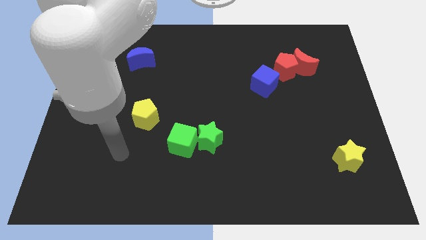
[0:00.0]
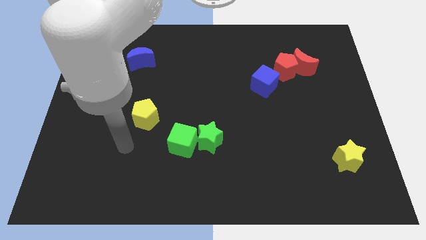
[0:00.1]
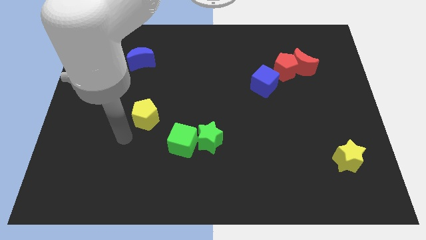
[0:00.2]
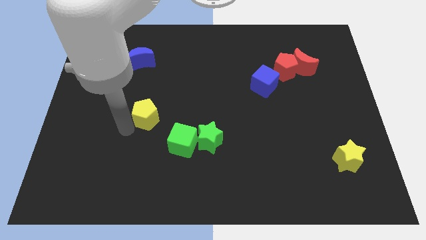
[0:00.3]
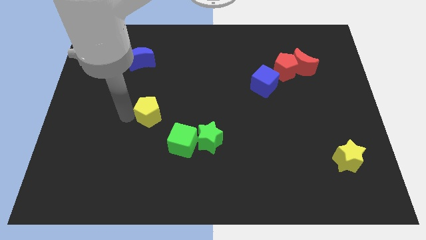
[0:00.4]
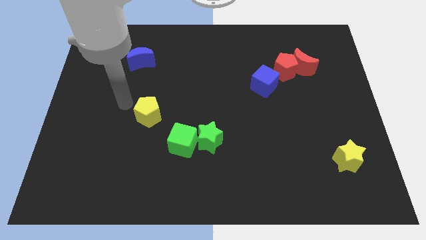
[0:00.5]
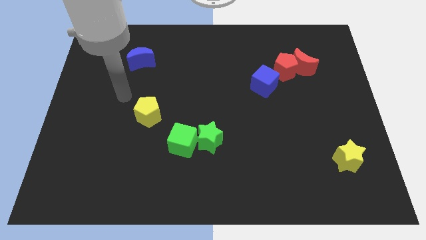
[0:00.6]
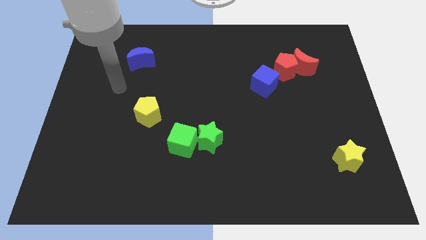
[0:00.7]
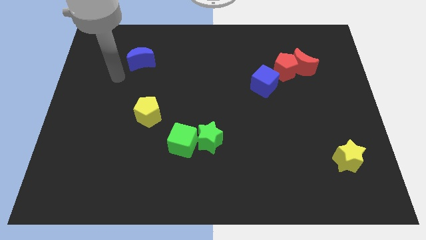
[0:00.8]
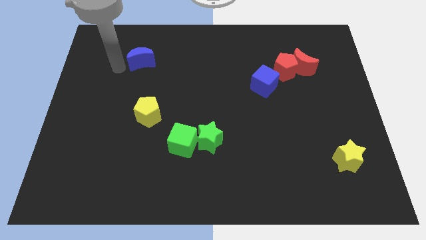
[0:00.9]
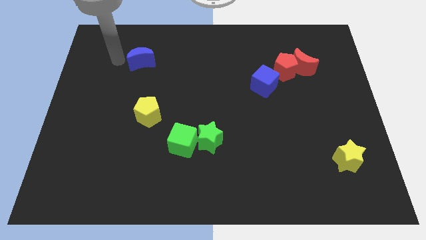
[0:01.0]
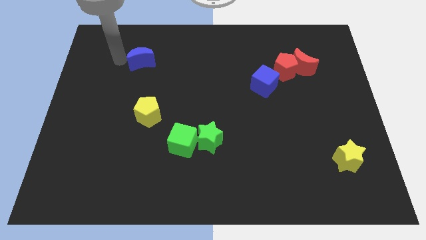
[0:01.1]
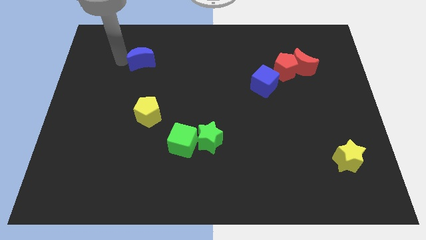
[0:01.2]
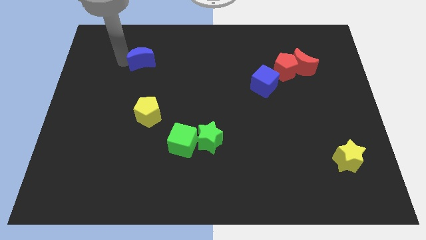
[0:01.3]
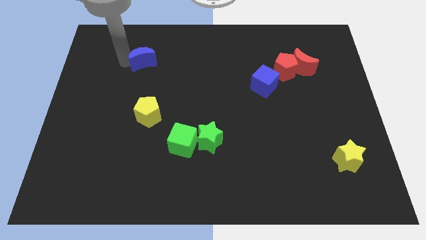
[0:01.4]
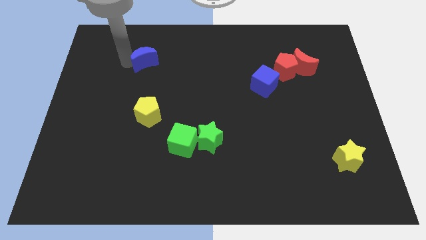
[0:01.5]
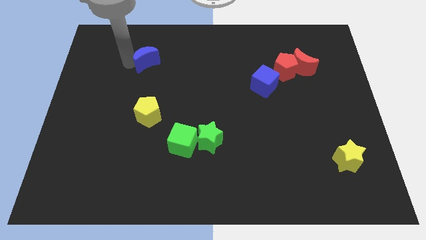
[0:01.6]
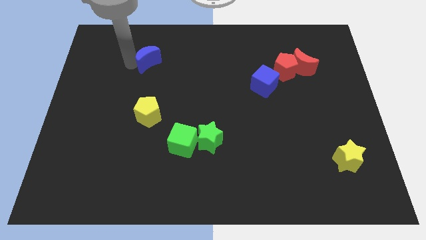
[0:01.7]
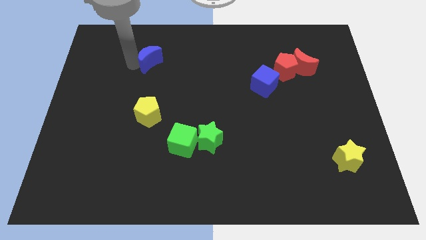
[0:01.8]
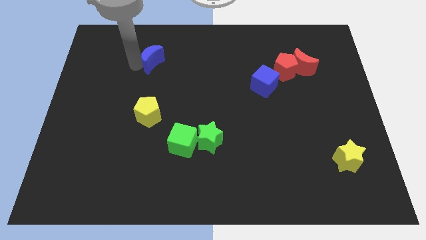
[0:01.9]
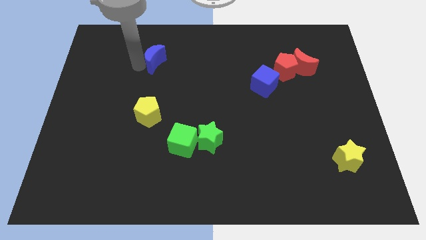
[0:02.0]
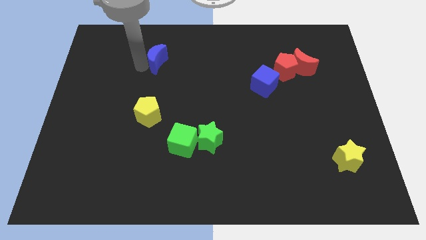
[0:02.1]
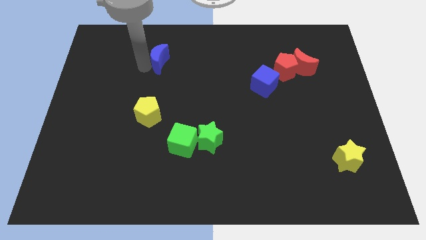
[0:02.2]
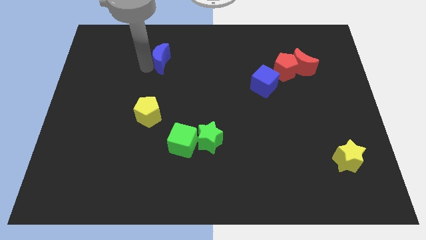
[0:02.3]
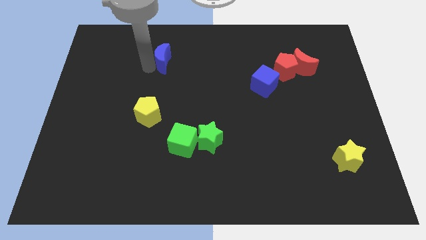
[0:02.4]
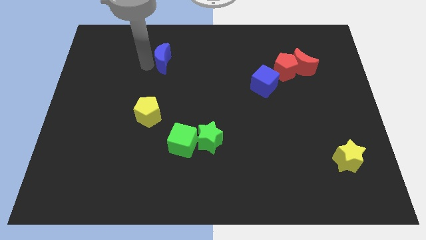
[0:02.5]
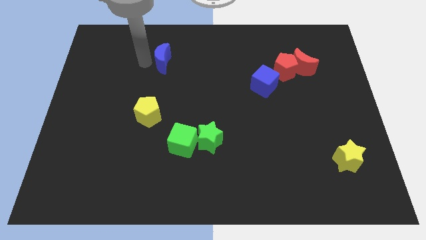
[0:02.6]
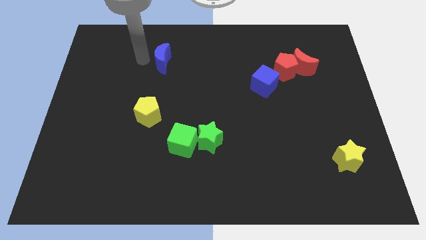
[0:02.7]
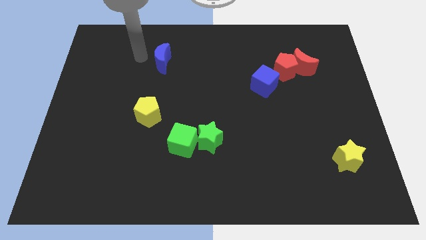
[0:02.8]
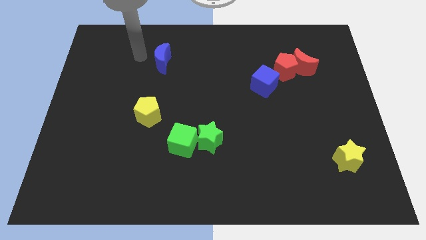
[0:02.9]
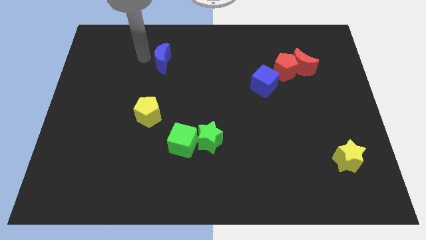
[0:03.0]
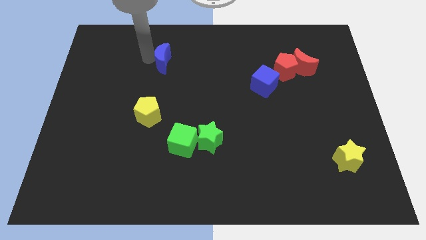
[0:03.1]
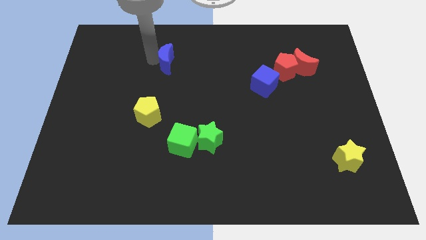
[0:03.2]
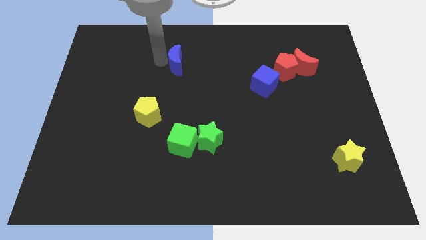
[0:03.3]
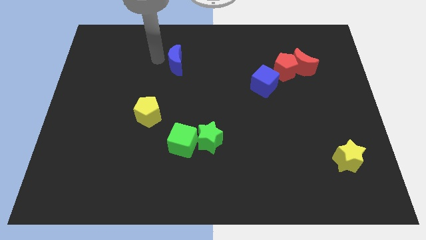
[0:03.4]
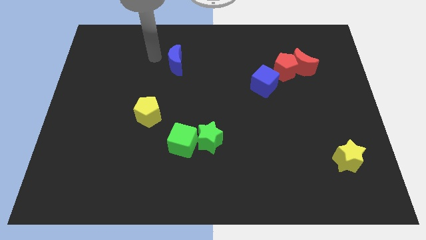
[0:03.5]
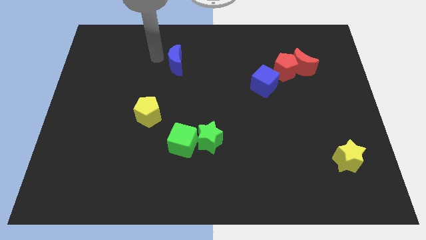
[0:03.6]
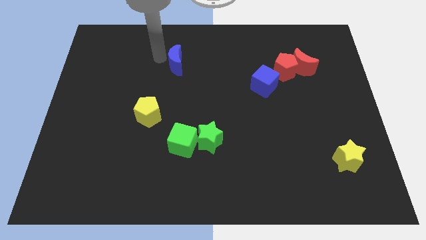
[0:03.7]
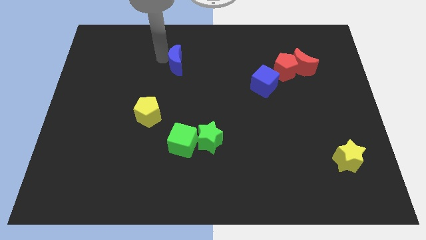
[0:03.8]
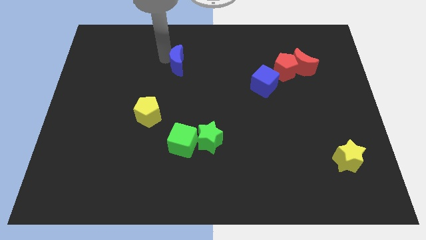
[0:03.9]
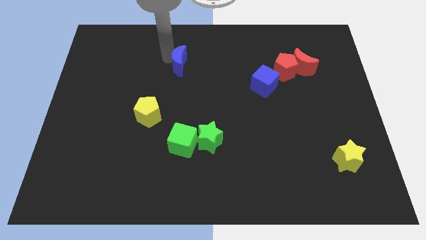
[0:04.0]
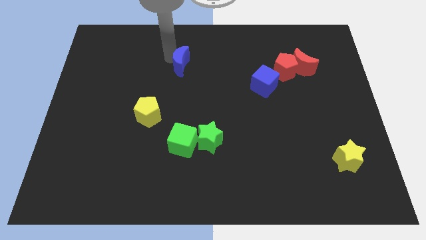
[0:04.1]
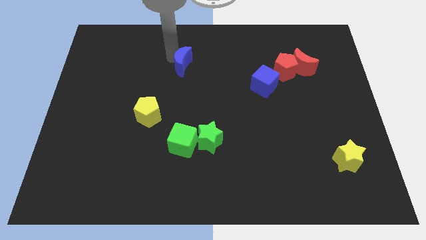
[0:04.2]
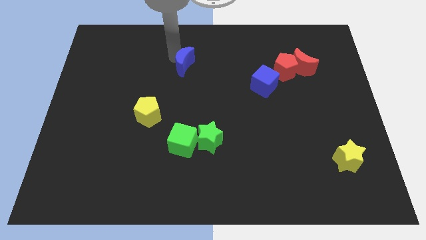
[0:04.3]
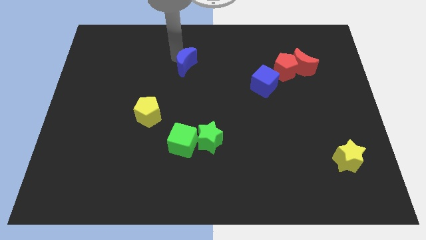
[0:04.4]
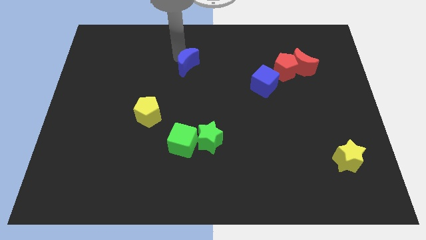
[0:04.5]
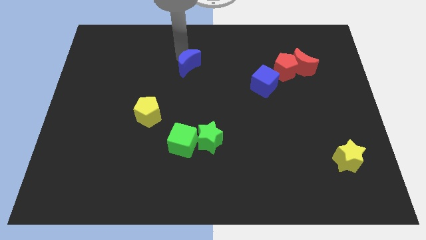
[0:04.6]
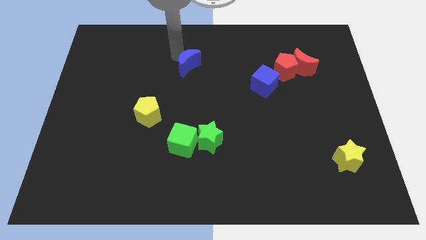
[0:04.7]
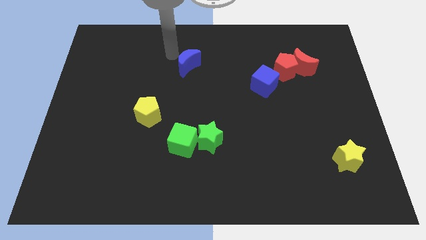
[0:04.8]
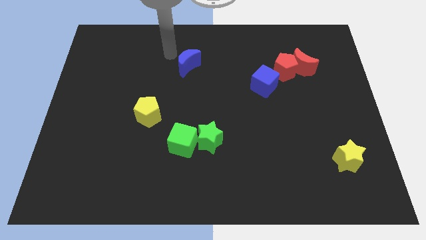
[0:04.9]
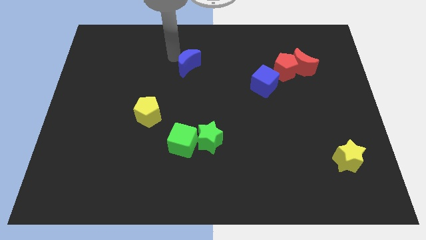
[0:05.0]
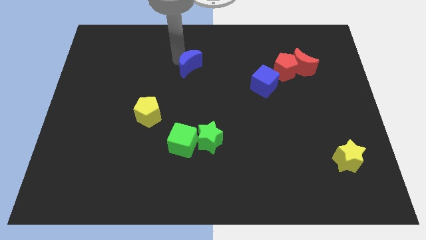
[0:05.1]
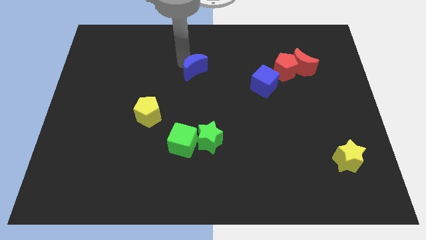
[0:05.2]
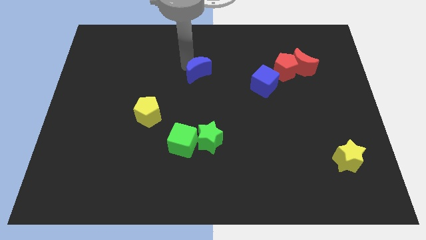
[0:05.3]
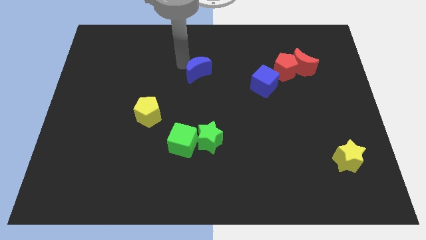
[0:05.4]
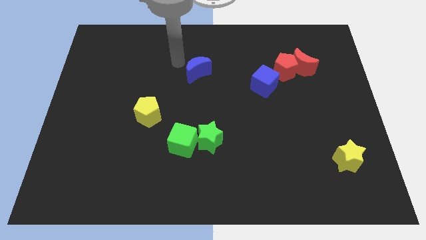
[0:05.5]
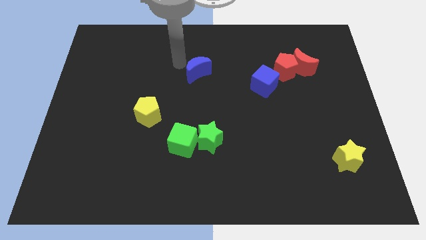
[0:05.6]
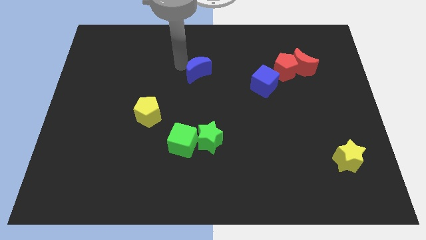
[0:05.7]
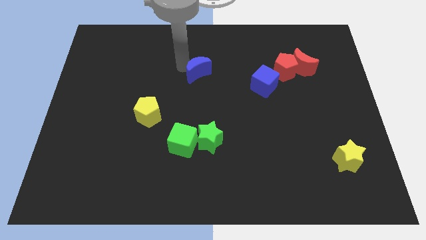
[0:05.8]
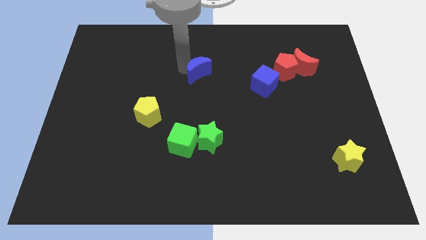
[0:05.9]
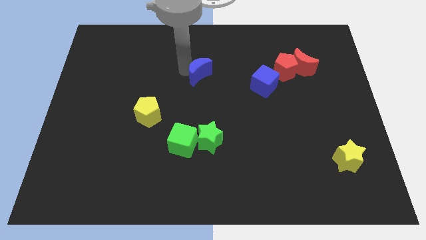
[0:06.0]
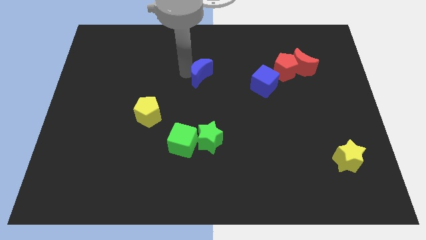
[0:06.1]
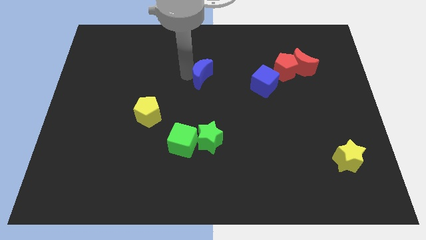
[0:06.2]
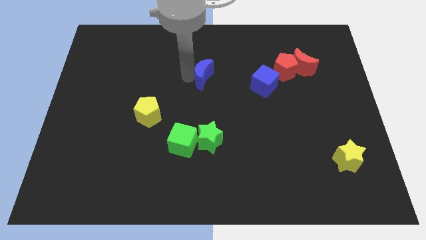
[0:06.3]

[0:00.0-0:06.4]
put the blue moon to the left side of the blue cube
